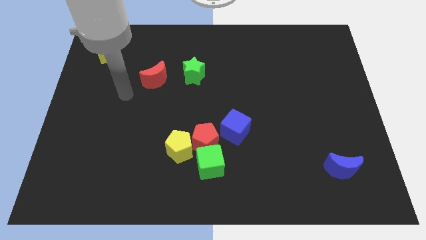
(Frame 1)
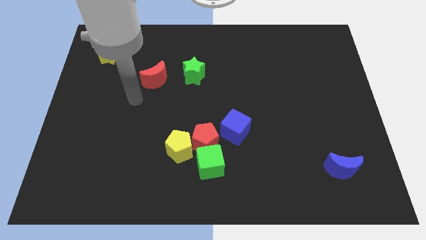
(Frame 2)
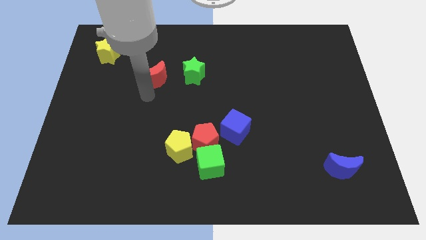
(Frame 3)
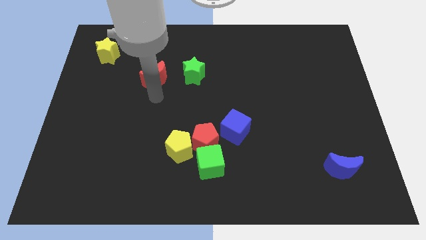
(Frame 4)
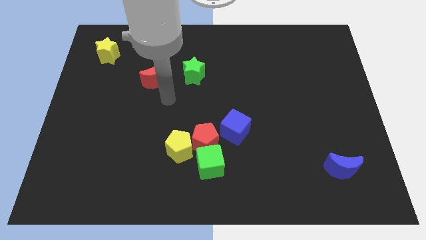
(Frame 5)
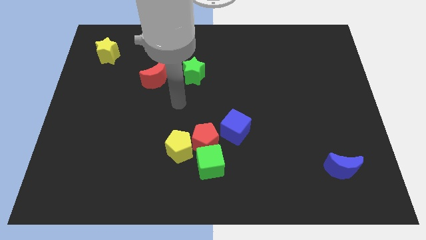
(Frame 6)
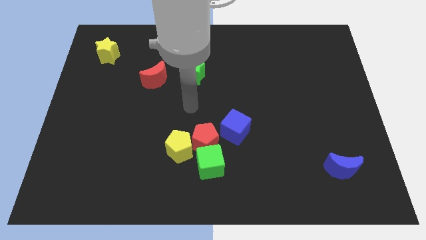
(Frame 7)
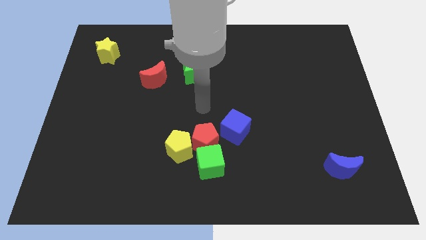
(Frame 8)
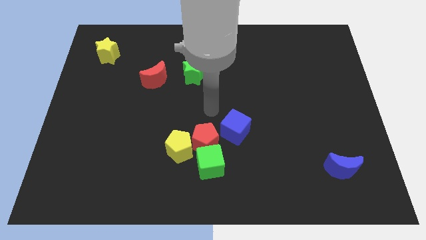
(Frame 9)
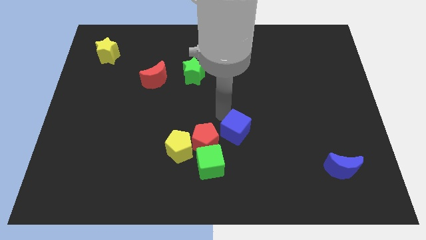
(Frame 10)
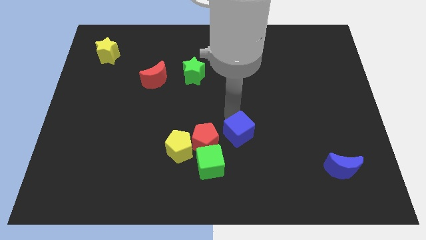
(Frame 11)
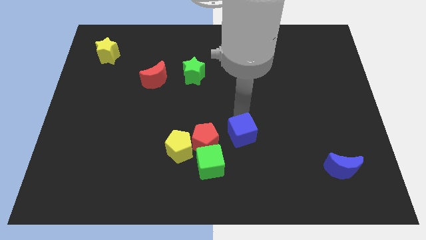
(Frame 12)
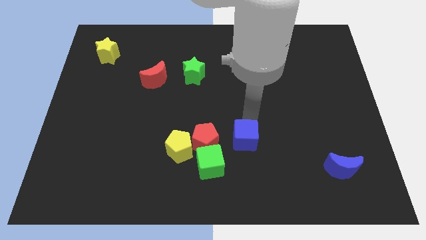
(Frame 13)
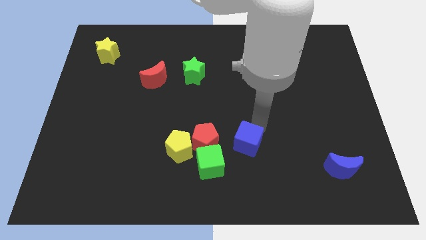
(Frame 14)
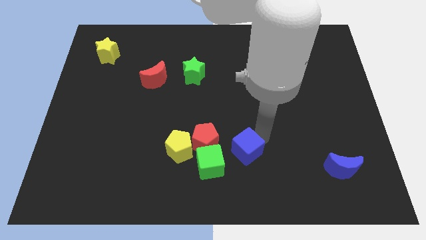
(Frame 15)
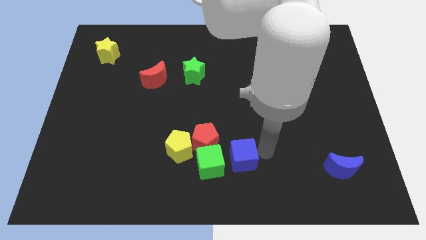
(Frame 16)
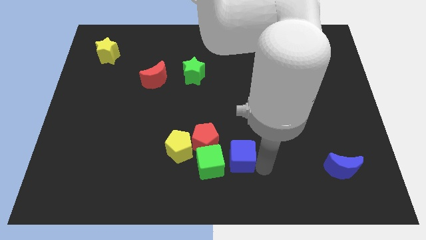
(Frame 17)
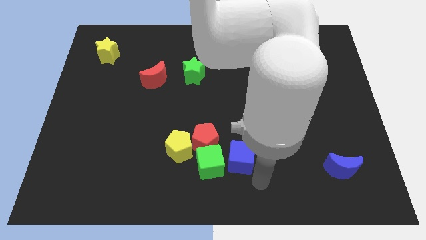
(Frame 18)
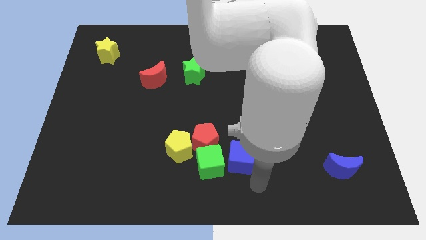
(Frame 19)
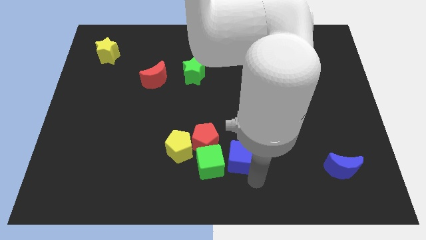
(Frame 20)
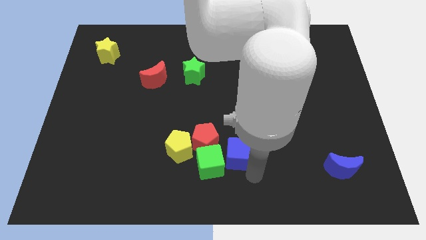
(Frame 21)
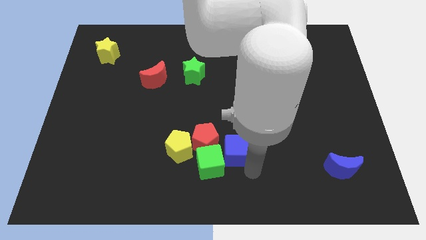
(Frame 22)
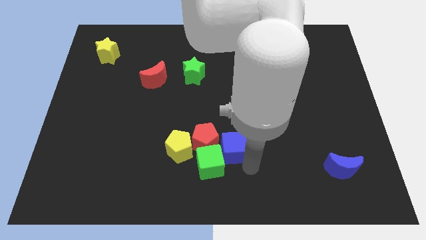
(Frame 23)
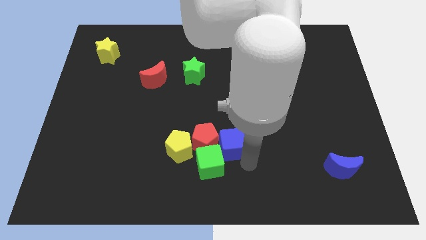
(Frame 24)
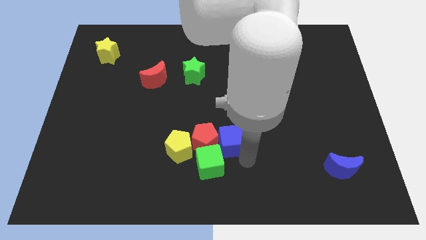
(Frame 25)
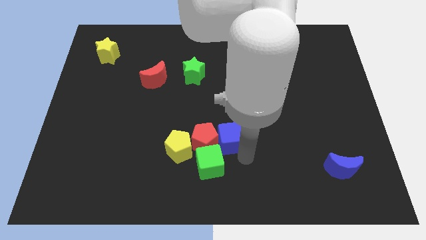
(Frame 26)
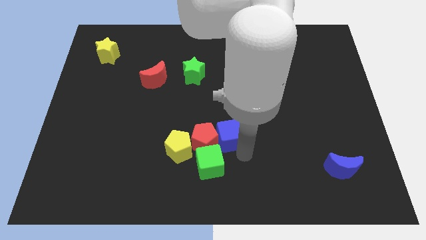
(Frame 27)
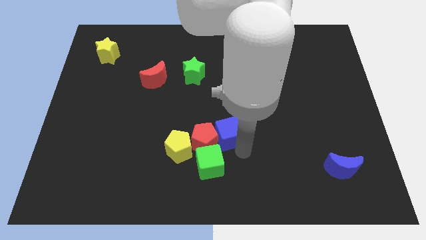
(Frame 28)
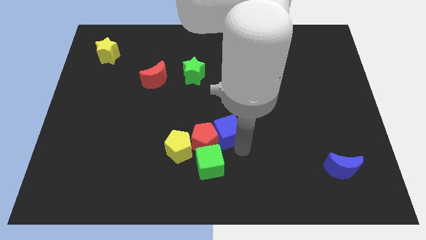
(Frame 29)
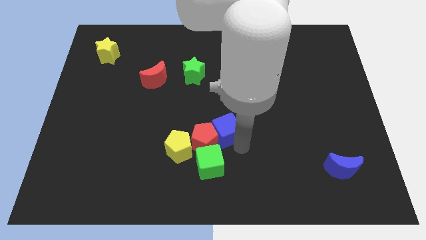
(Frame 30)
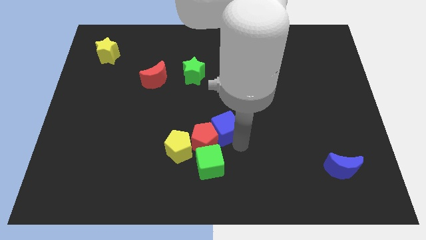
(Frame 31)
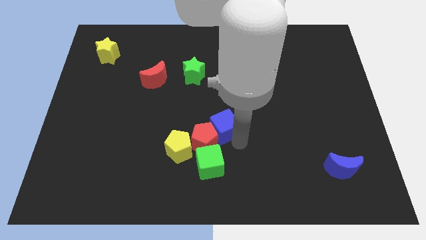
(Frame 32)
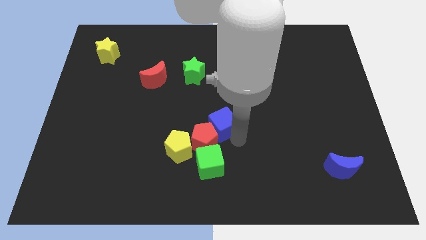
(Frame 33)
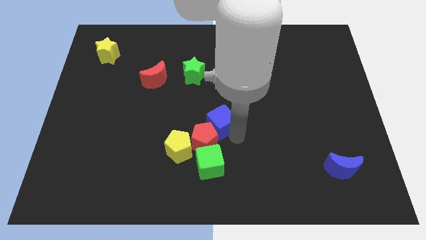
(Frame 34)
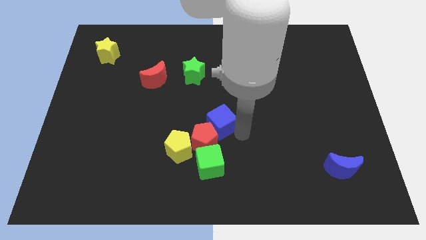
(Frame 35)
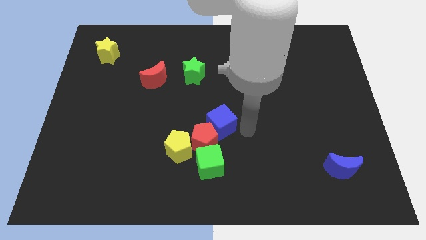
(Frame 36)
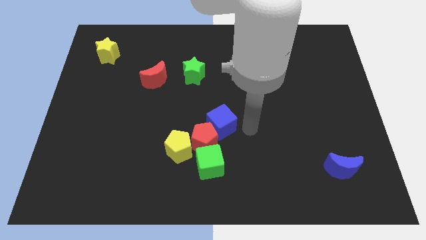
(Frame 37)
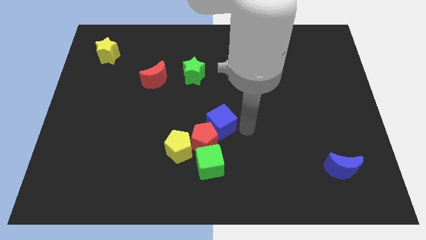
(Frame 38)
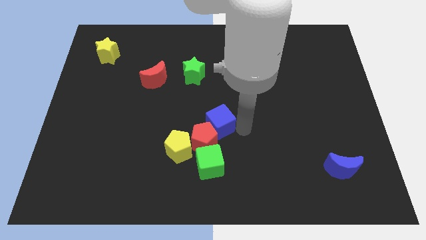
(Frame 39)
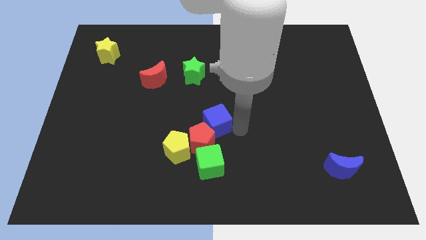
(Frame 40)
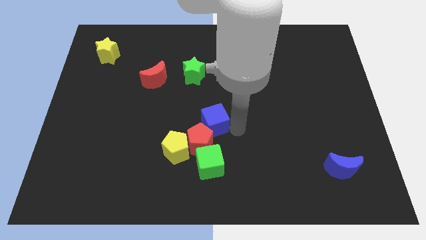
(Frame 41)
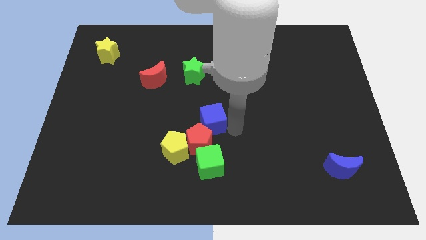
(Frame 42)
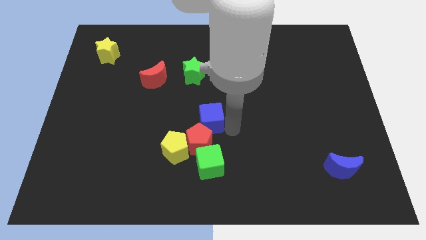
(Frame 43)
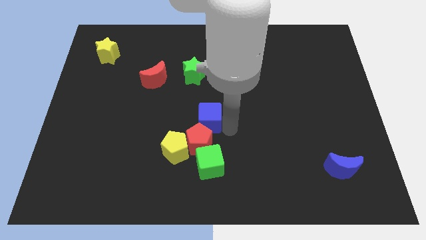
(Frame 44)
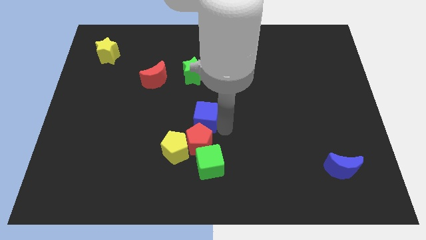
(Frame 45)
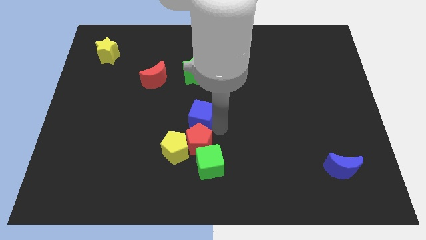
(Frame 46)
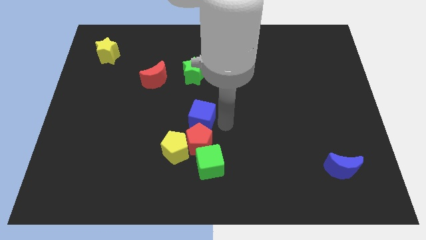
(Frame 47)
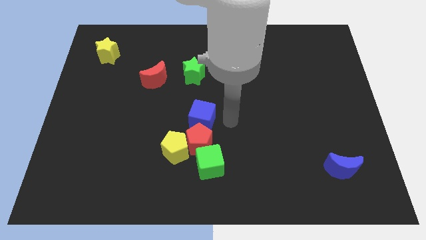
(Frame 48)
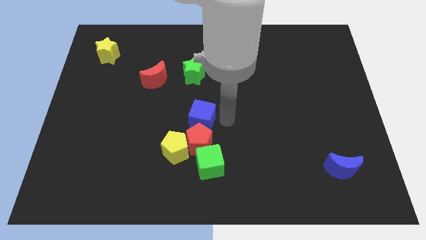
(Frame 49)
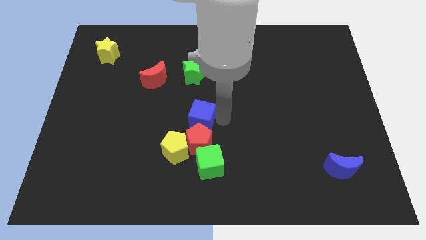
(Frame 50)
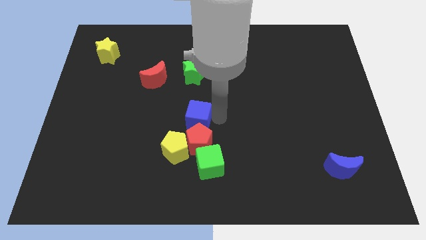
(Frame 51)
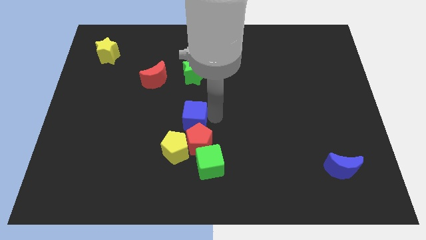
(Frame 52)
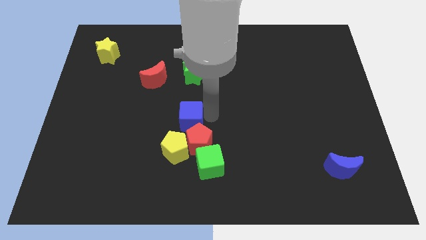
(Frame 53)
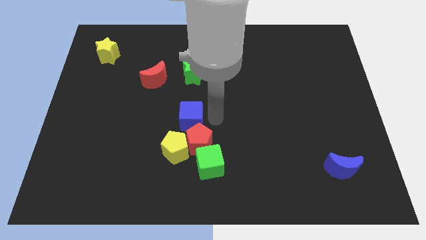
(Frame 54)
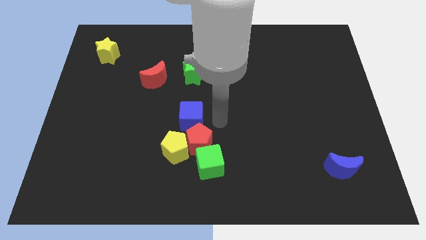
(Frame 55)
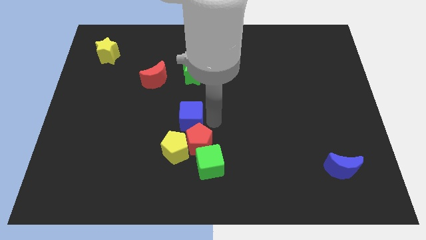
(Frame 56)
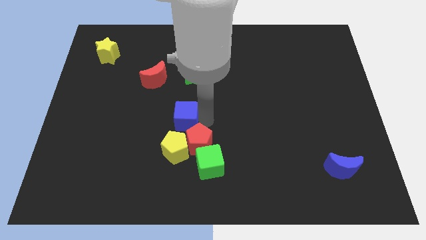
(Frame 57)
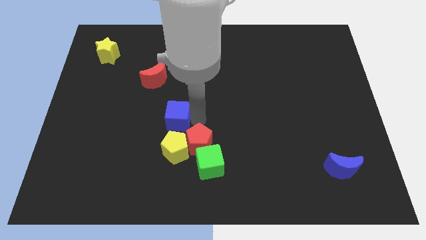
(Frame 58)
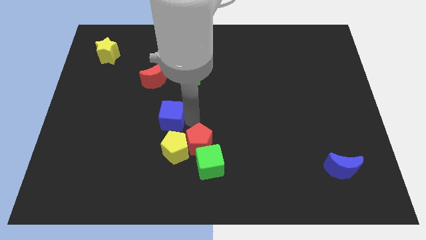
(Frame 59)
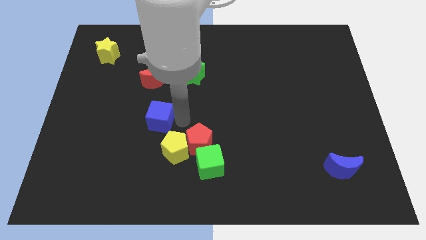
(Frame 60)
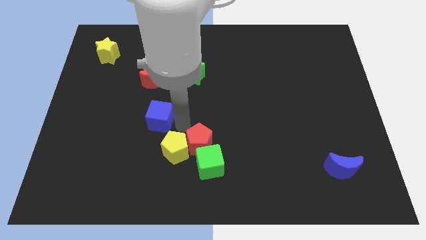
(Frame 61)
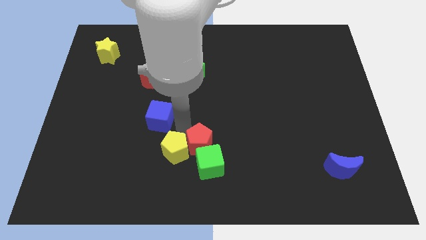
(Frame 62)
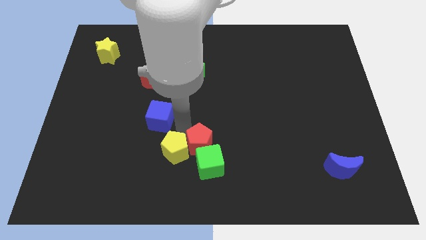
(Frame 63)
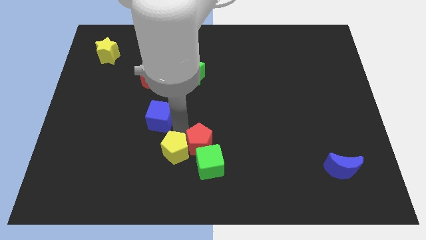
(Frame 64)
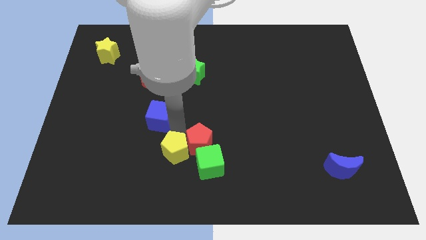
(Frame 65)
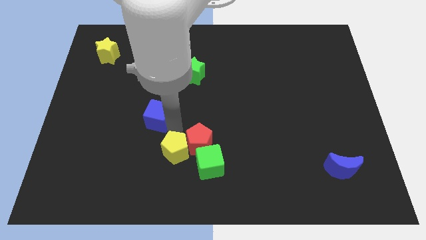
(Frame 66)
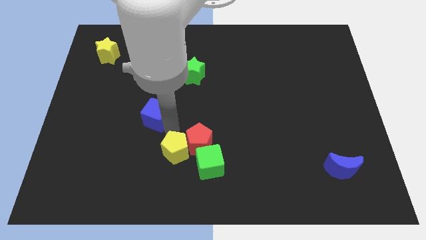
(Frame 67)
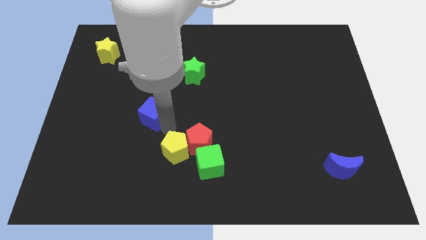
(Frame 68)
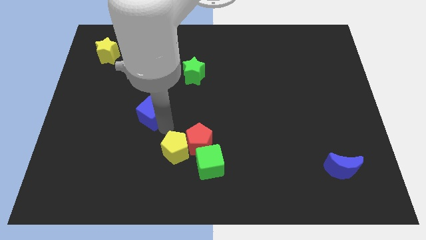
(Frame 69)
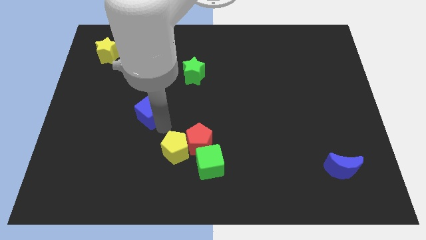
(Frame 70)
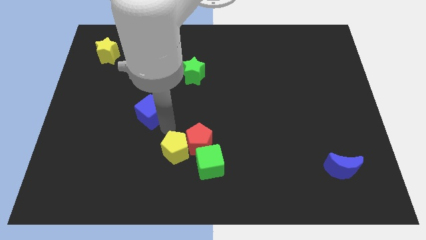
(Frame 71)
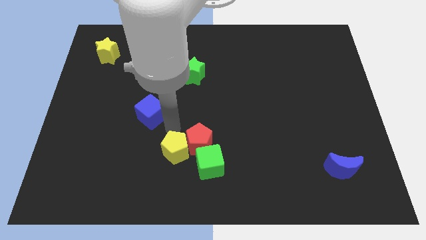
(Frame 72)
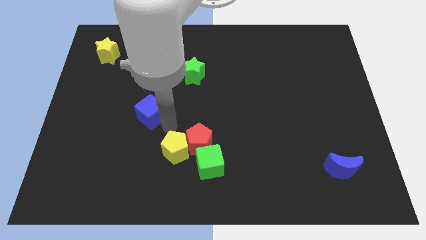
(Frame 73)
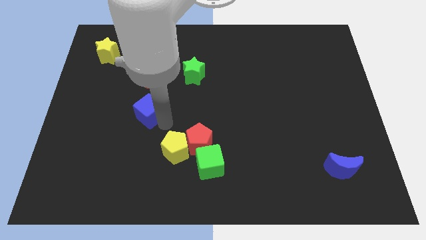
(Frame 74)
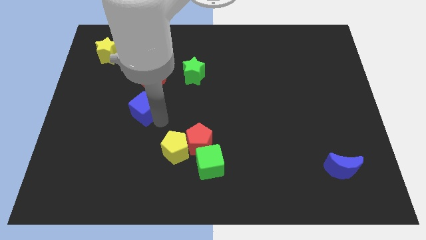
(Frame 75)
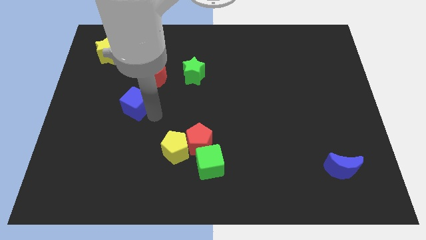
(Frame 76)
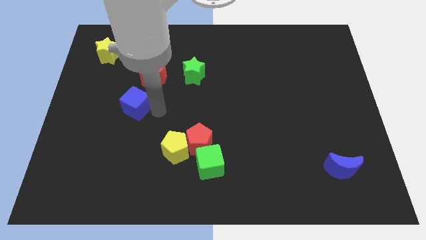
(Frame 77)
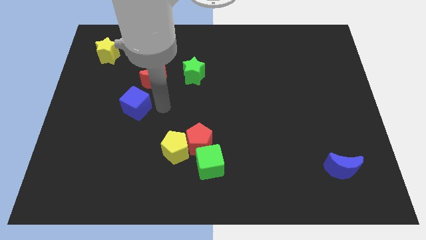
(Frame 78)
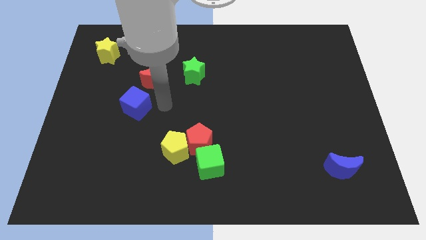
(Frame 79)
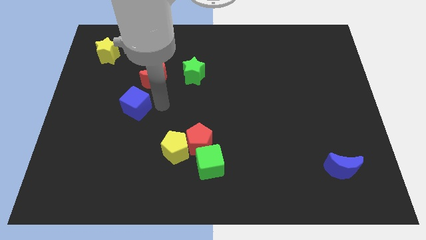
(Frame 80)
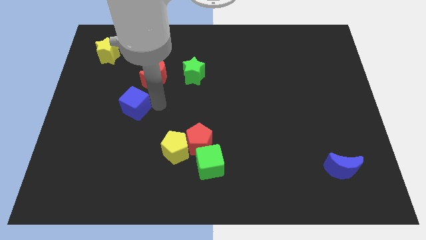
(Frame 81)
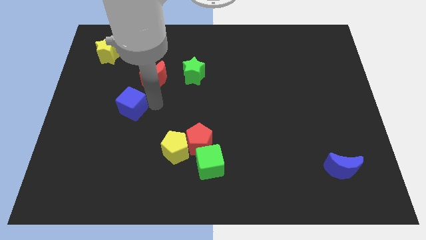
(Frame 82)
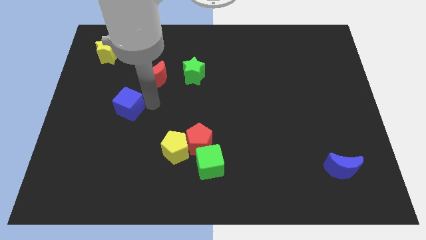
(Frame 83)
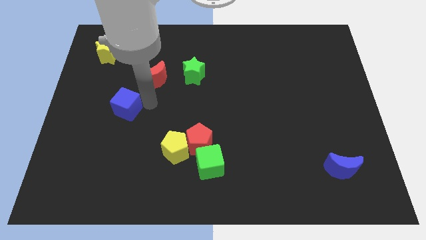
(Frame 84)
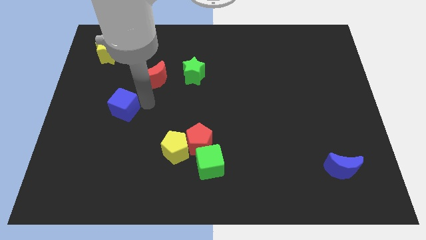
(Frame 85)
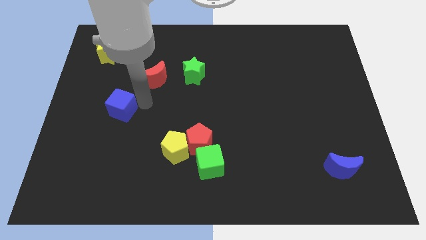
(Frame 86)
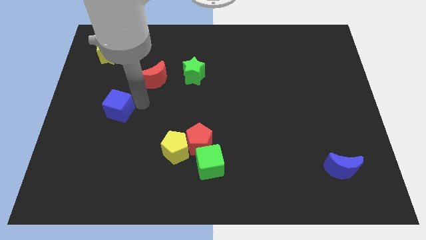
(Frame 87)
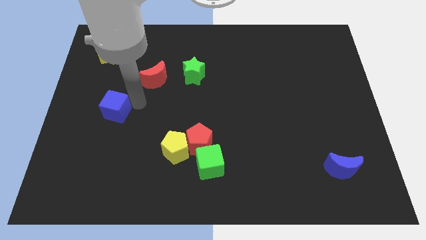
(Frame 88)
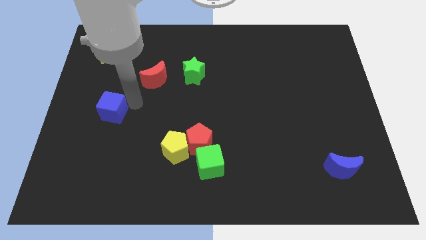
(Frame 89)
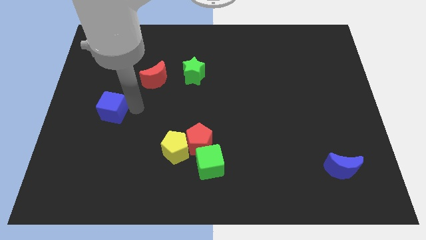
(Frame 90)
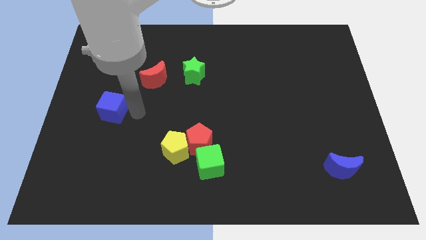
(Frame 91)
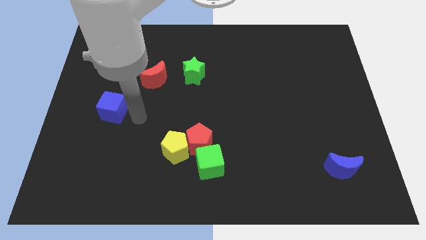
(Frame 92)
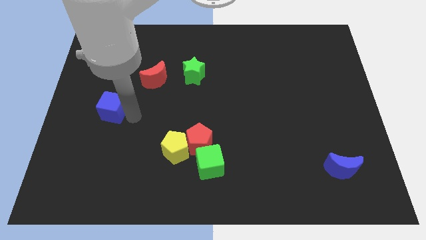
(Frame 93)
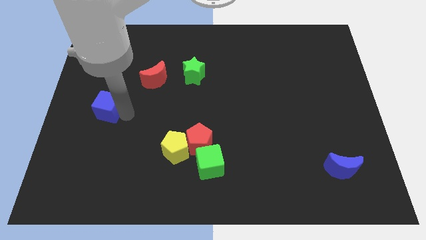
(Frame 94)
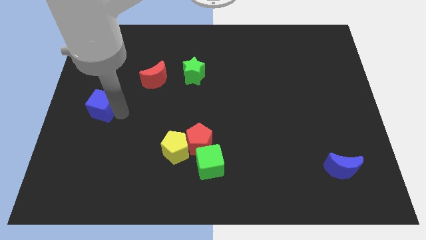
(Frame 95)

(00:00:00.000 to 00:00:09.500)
slide the blue cube to the center left
